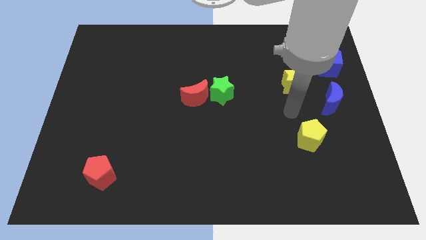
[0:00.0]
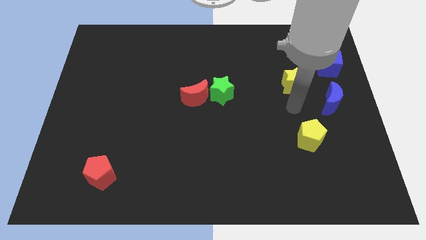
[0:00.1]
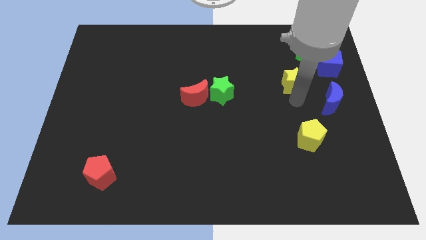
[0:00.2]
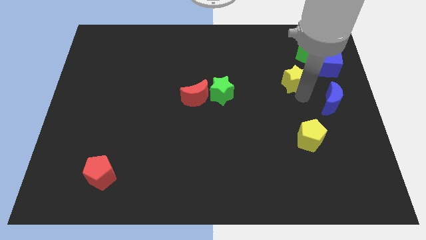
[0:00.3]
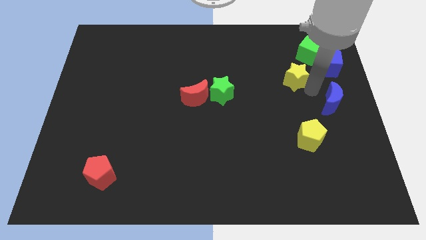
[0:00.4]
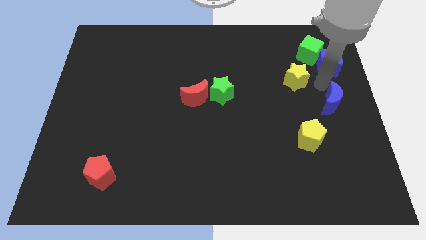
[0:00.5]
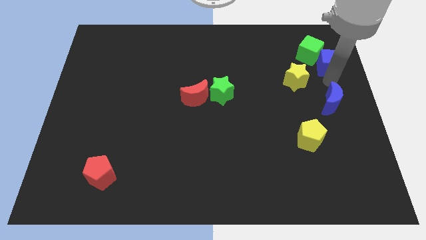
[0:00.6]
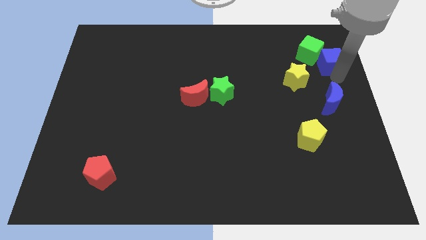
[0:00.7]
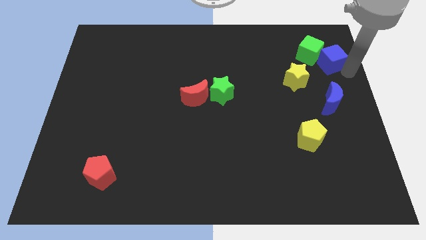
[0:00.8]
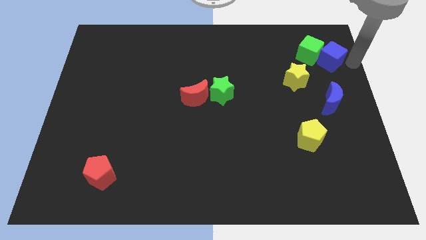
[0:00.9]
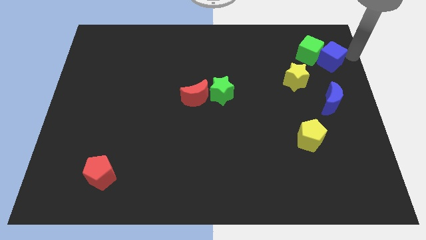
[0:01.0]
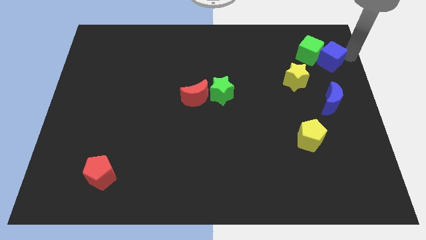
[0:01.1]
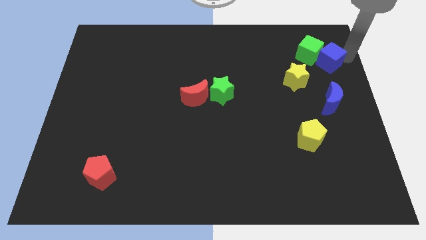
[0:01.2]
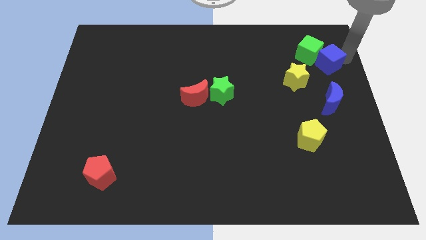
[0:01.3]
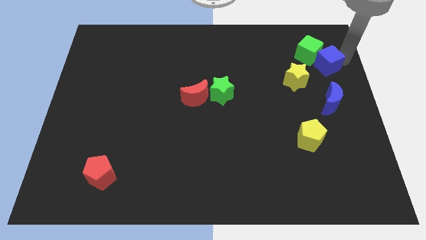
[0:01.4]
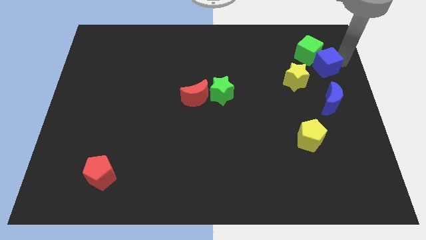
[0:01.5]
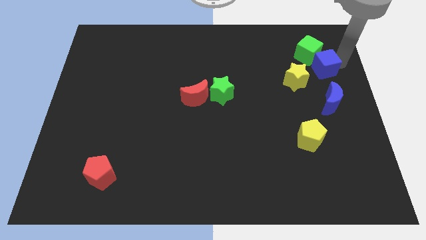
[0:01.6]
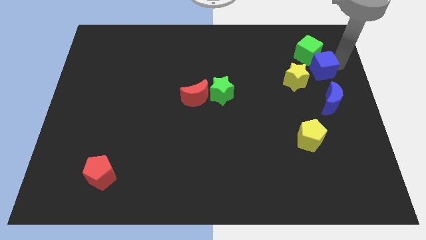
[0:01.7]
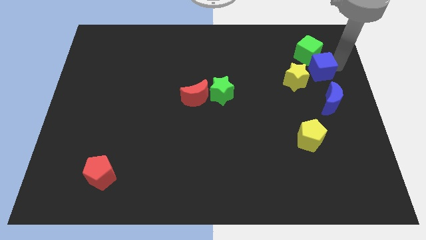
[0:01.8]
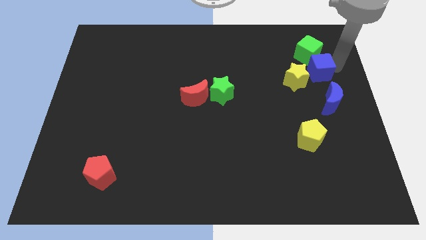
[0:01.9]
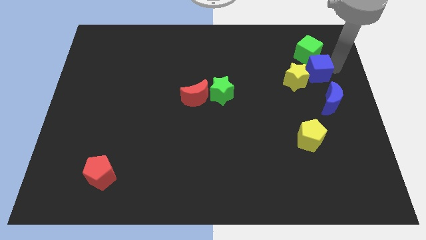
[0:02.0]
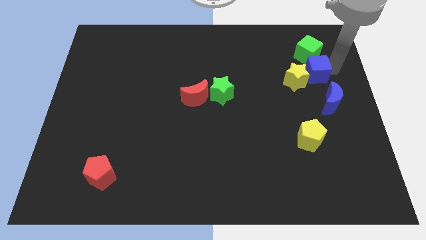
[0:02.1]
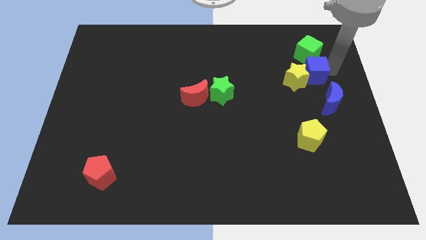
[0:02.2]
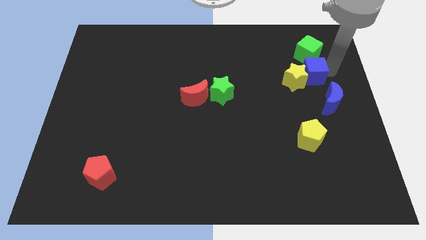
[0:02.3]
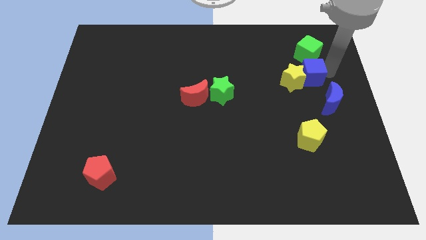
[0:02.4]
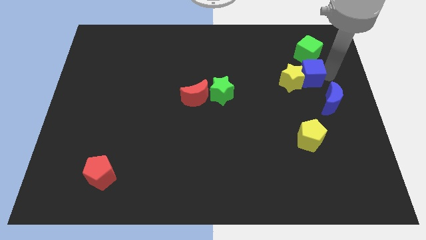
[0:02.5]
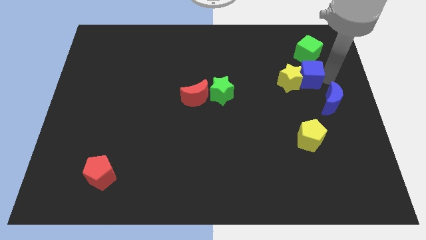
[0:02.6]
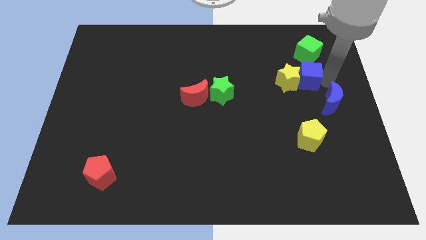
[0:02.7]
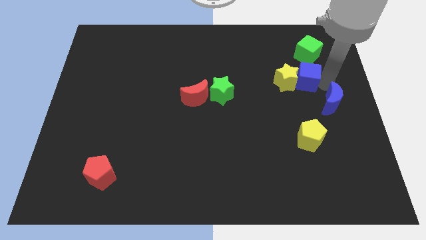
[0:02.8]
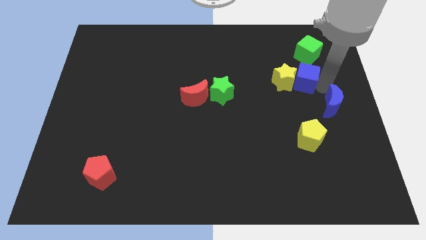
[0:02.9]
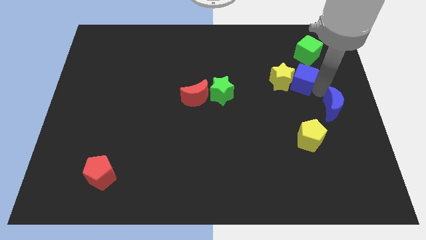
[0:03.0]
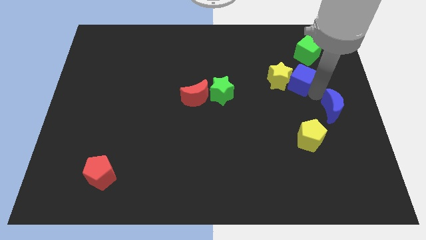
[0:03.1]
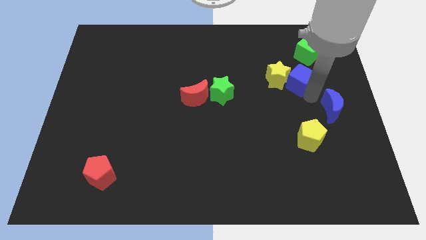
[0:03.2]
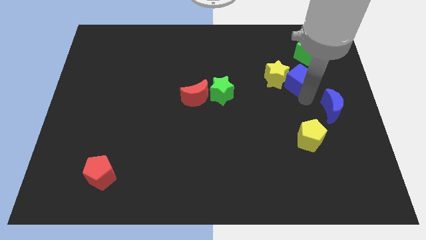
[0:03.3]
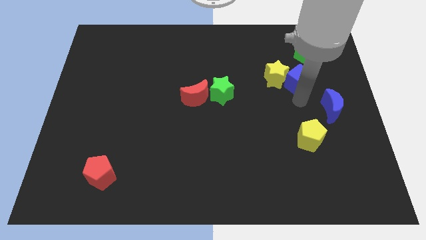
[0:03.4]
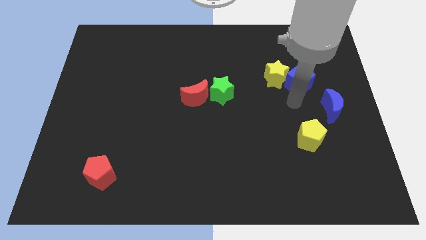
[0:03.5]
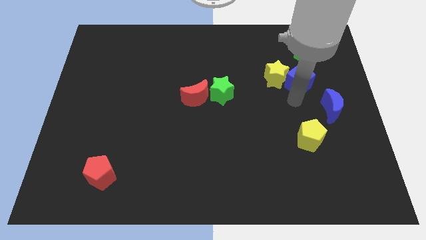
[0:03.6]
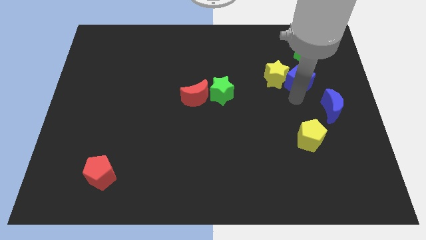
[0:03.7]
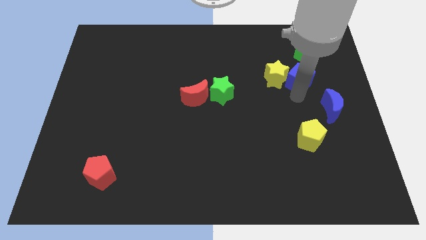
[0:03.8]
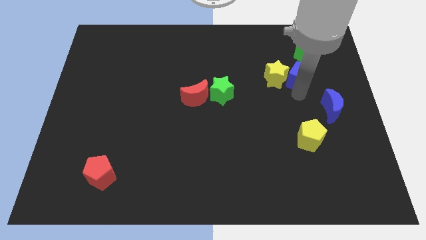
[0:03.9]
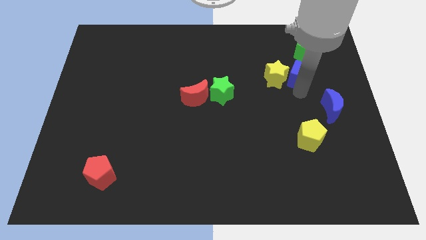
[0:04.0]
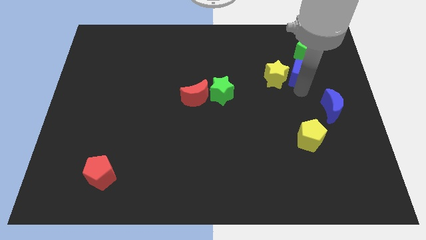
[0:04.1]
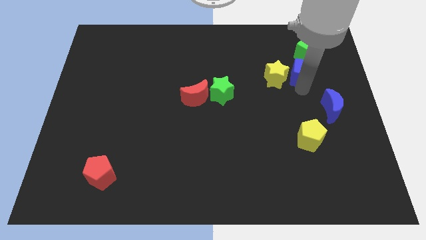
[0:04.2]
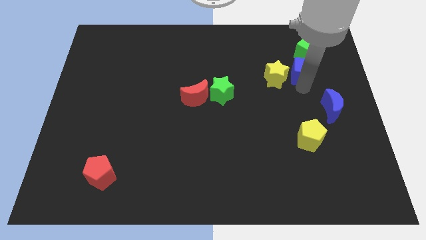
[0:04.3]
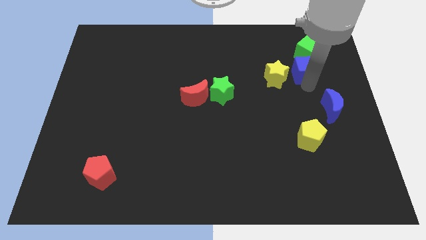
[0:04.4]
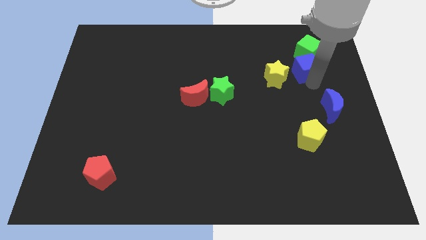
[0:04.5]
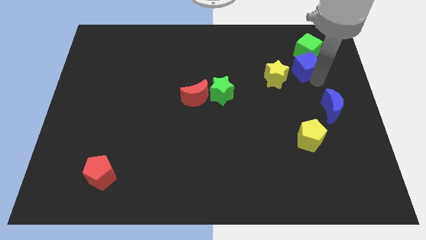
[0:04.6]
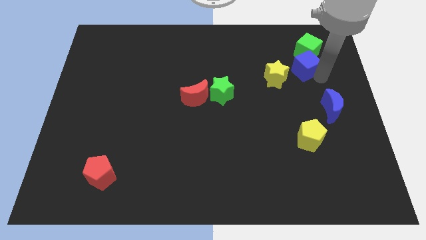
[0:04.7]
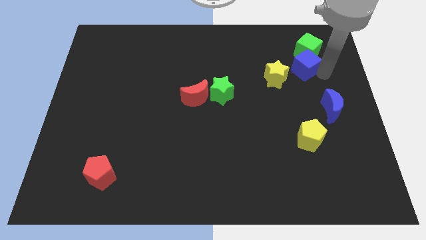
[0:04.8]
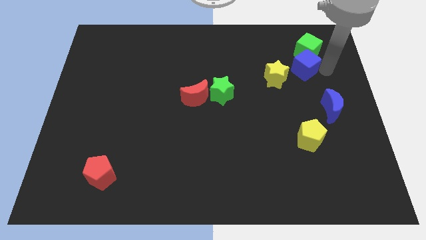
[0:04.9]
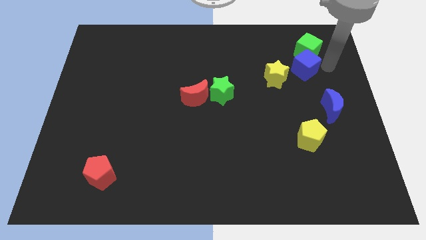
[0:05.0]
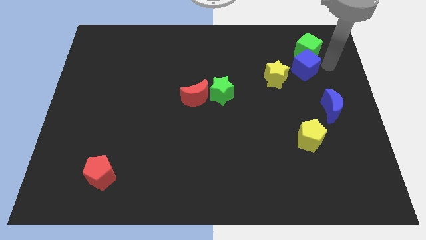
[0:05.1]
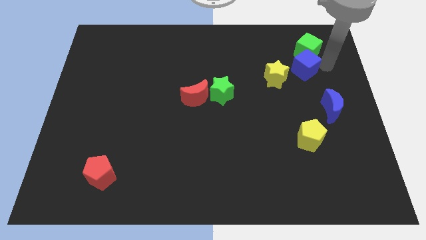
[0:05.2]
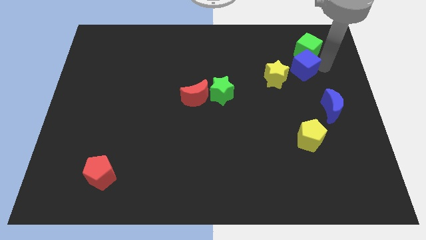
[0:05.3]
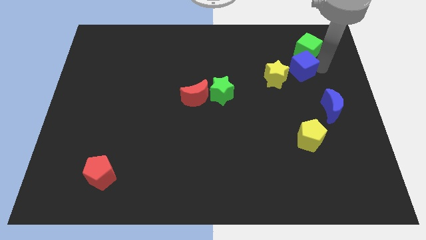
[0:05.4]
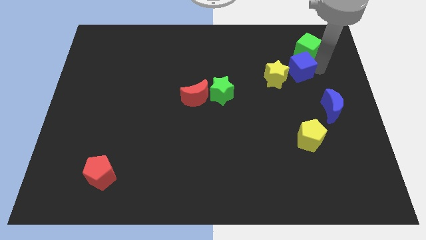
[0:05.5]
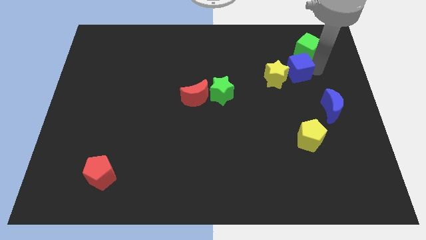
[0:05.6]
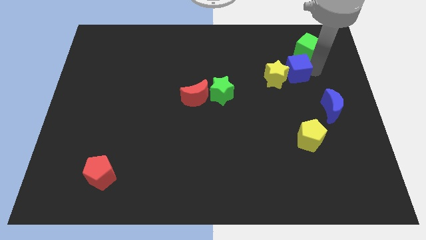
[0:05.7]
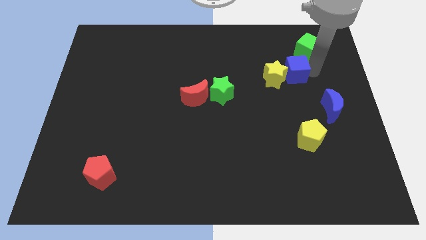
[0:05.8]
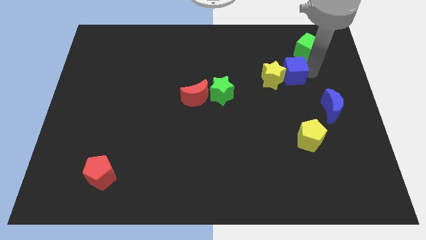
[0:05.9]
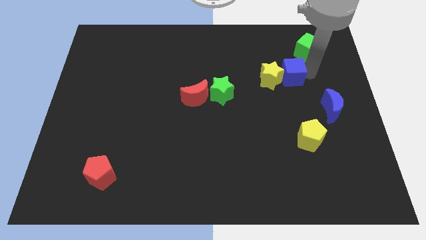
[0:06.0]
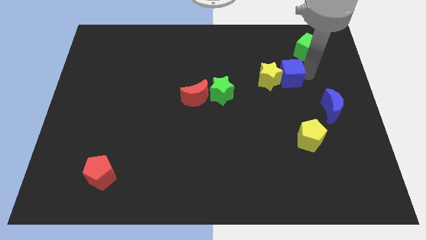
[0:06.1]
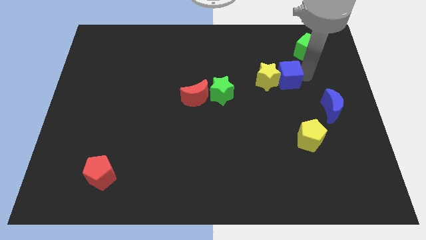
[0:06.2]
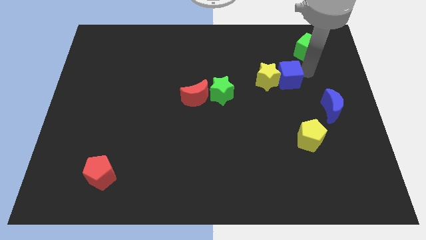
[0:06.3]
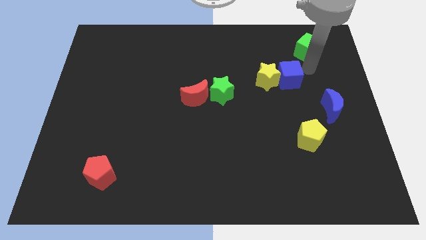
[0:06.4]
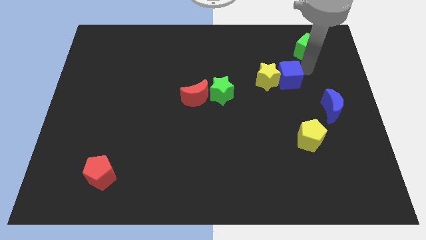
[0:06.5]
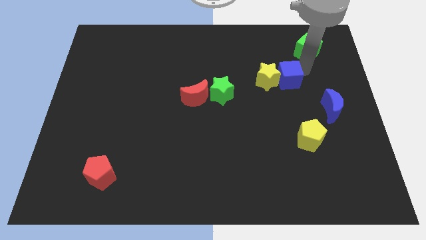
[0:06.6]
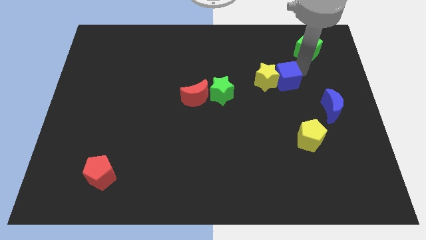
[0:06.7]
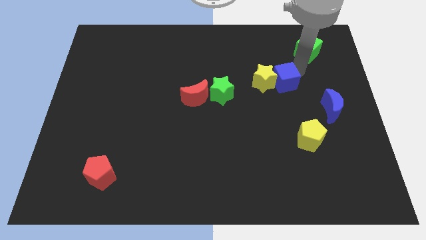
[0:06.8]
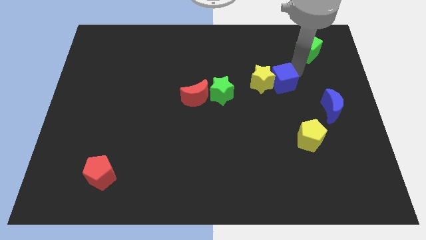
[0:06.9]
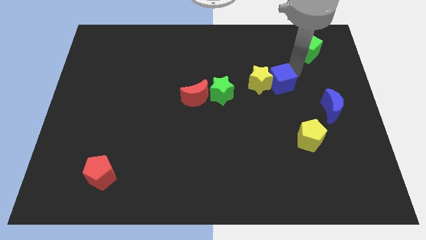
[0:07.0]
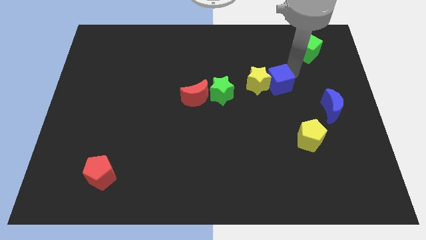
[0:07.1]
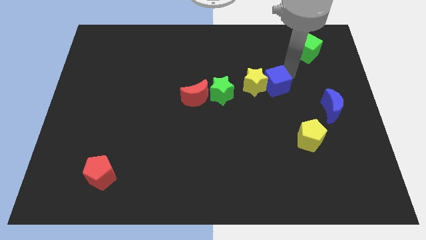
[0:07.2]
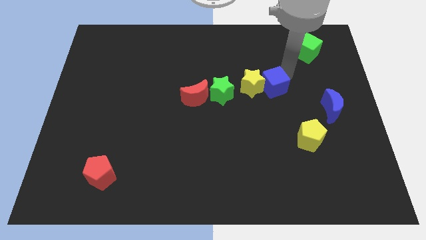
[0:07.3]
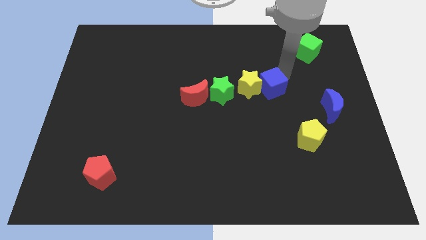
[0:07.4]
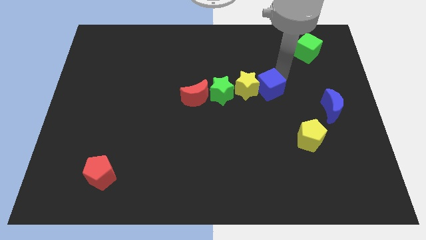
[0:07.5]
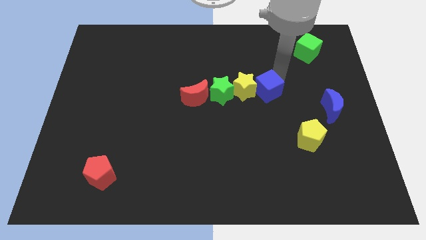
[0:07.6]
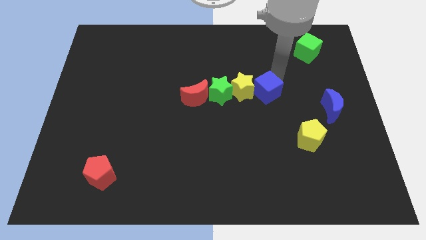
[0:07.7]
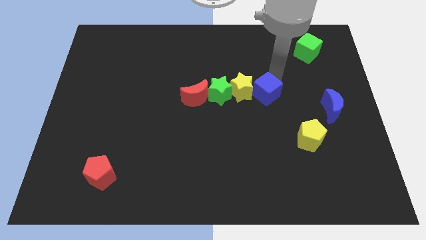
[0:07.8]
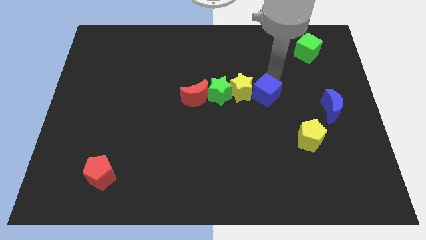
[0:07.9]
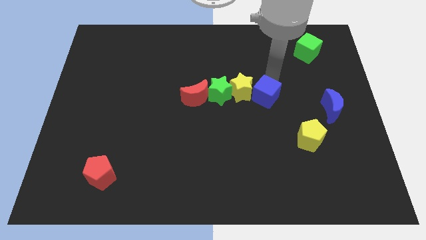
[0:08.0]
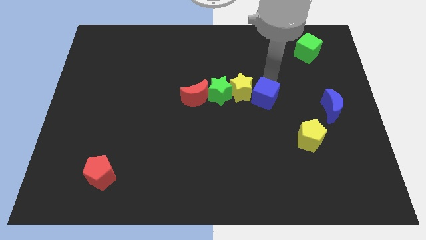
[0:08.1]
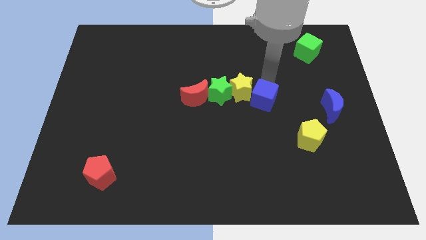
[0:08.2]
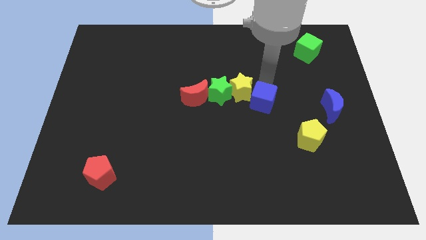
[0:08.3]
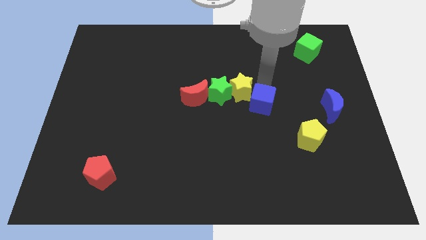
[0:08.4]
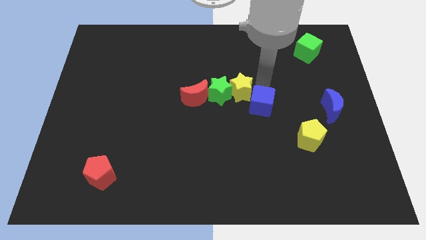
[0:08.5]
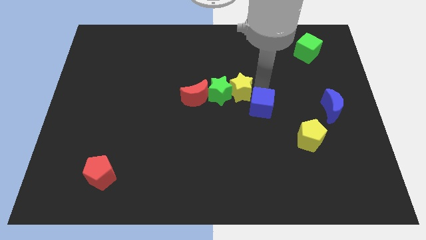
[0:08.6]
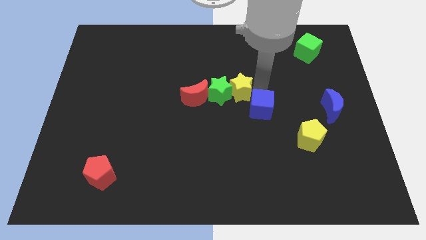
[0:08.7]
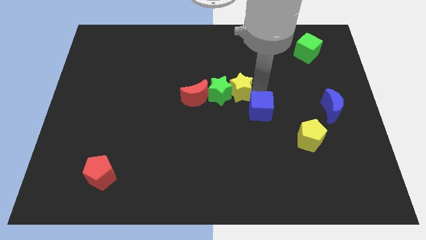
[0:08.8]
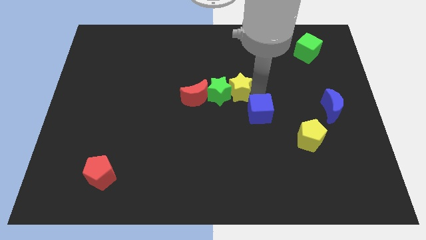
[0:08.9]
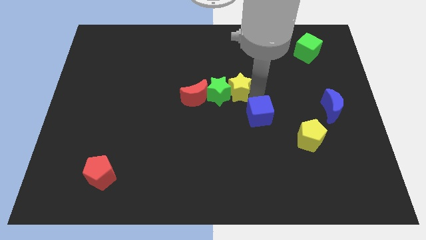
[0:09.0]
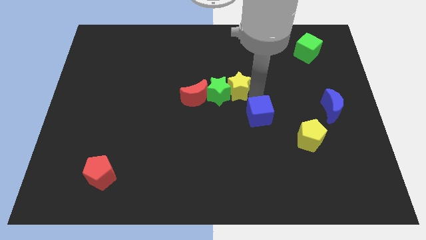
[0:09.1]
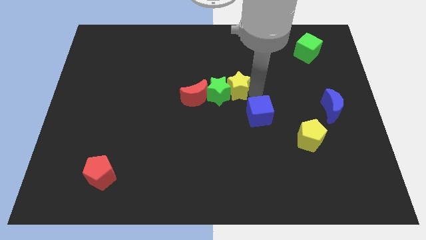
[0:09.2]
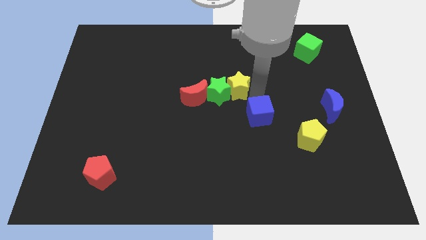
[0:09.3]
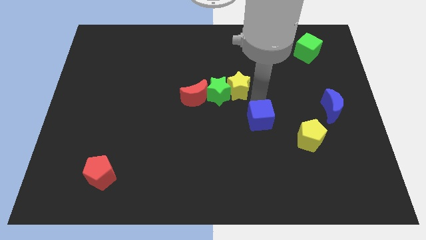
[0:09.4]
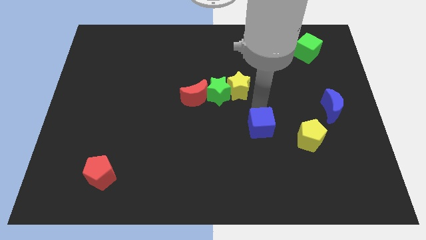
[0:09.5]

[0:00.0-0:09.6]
slide the blue cube left of the yellow pentagon
